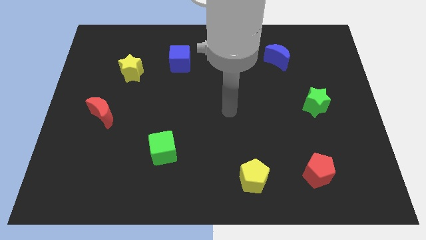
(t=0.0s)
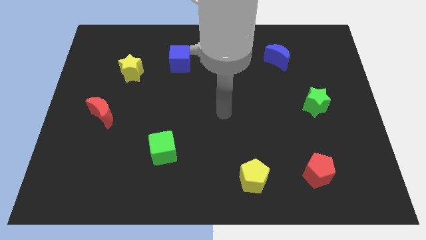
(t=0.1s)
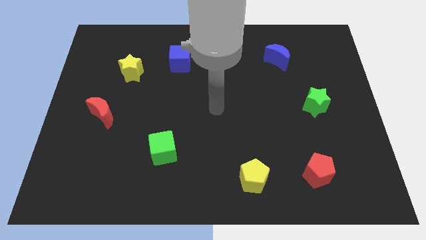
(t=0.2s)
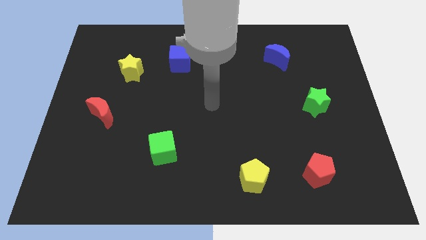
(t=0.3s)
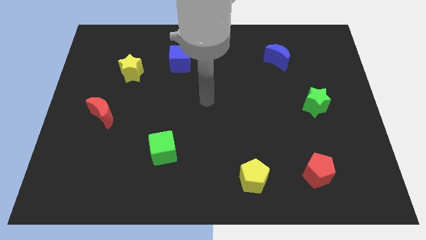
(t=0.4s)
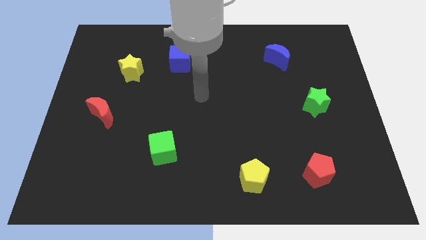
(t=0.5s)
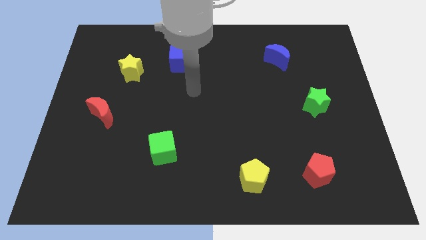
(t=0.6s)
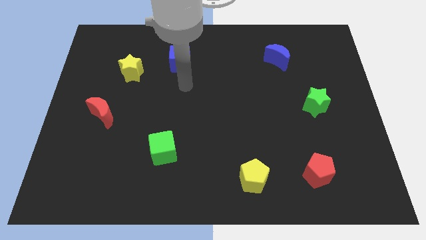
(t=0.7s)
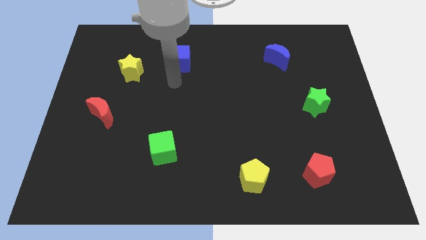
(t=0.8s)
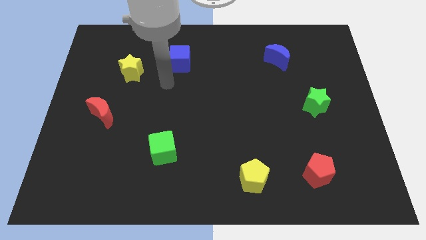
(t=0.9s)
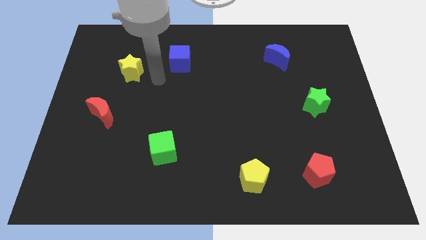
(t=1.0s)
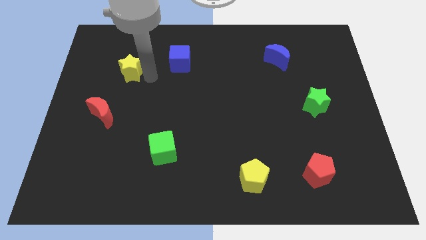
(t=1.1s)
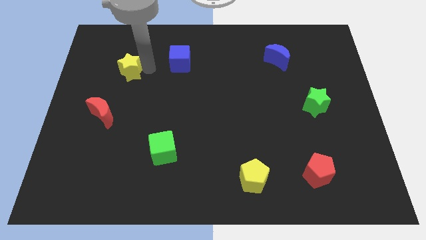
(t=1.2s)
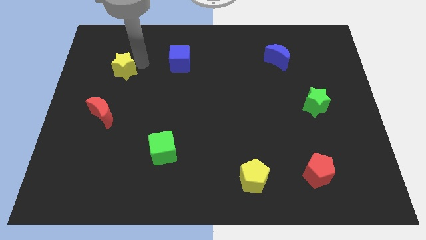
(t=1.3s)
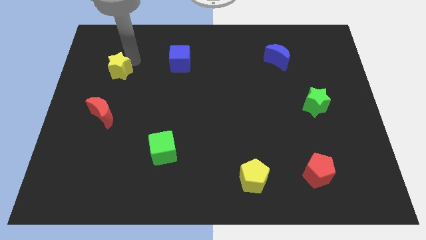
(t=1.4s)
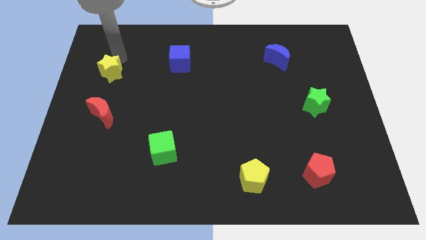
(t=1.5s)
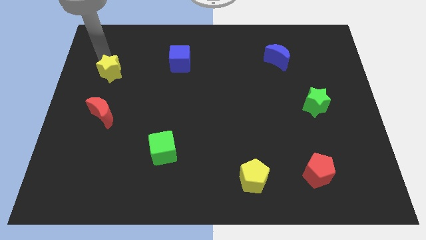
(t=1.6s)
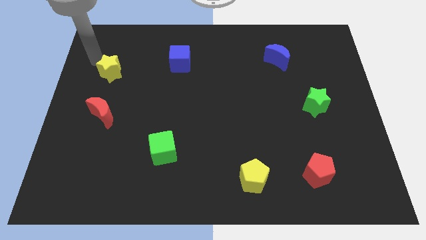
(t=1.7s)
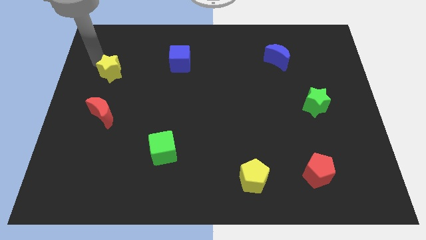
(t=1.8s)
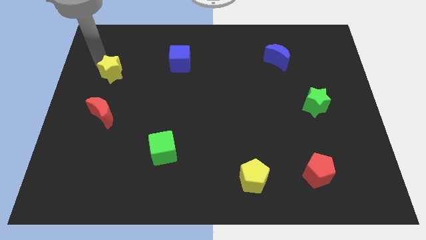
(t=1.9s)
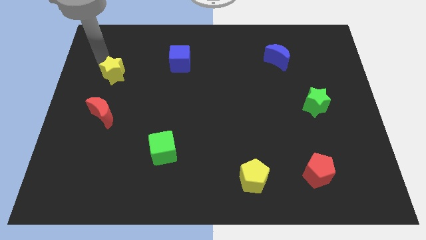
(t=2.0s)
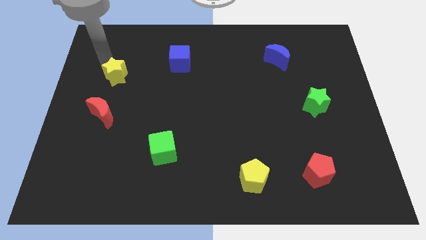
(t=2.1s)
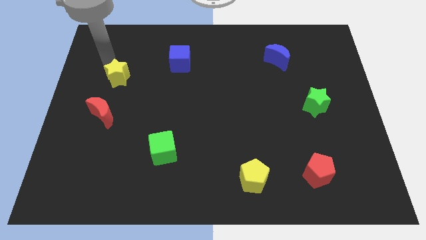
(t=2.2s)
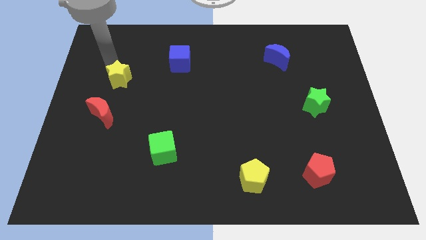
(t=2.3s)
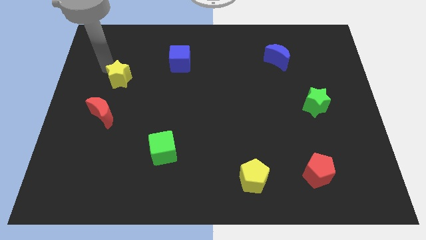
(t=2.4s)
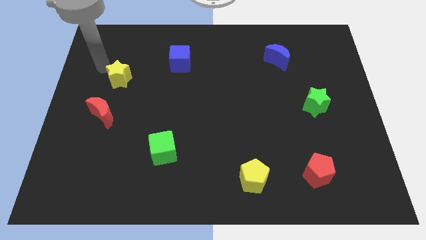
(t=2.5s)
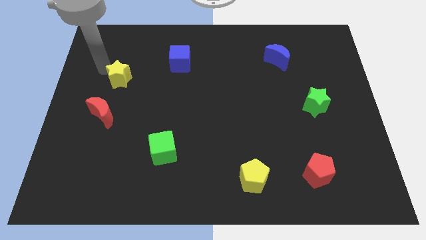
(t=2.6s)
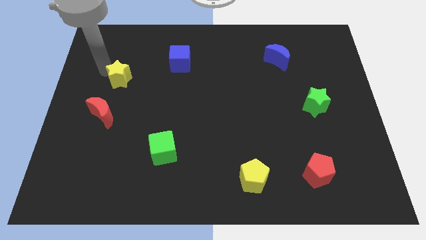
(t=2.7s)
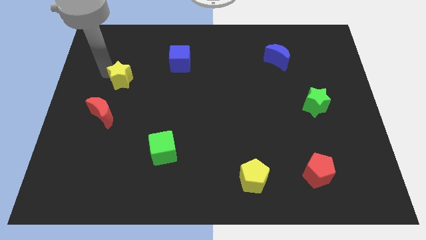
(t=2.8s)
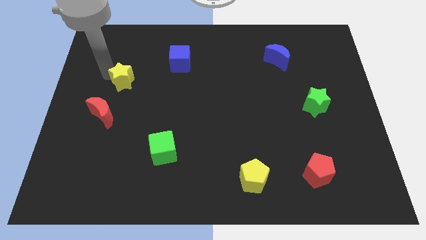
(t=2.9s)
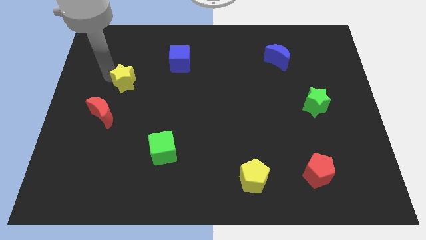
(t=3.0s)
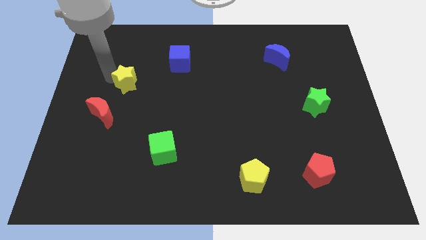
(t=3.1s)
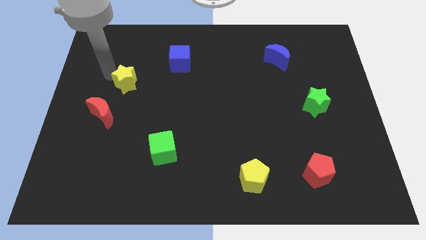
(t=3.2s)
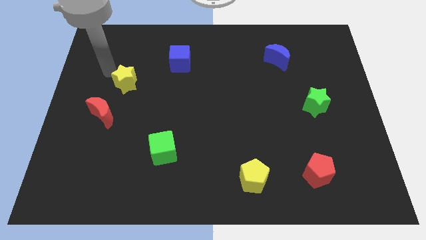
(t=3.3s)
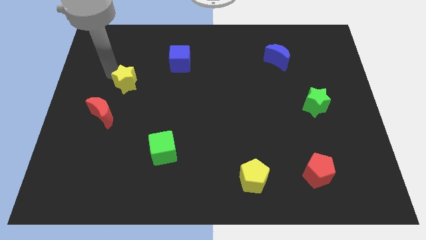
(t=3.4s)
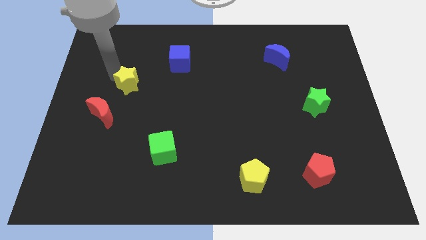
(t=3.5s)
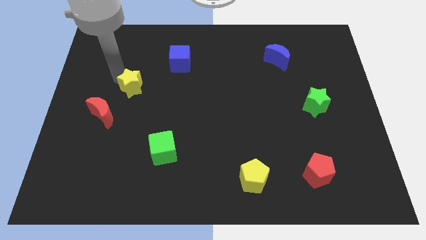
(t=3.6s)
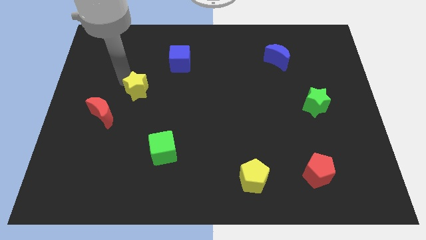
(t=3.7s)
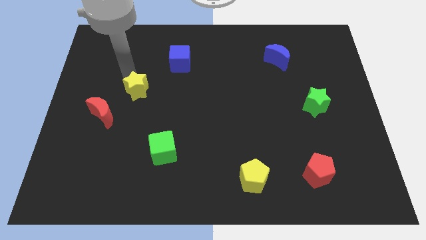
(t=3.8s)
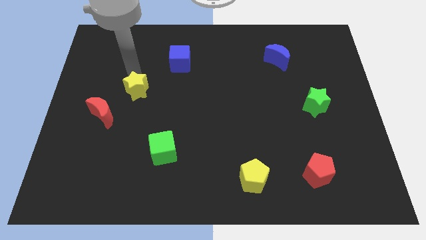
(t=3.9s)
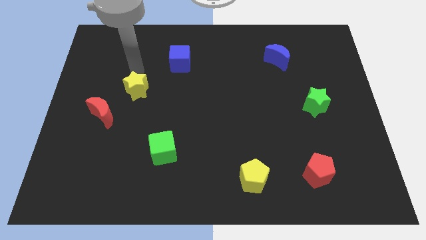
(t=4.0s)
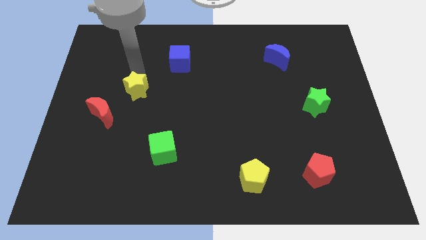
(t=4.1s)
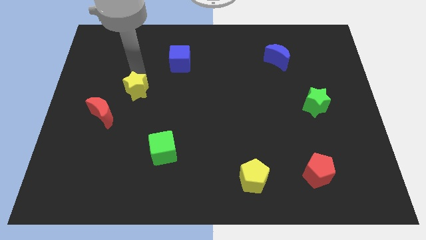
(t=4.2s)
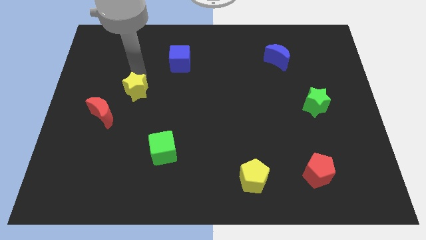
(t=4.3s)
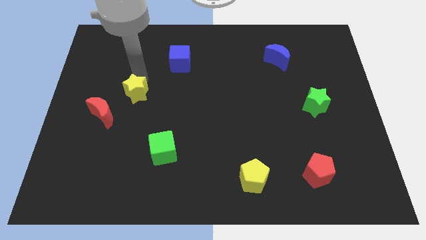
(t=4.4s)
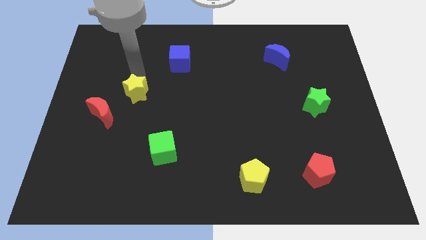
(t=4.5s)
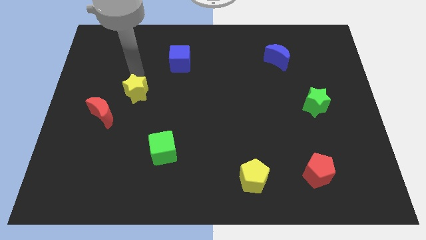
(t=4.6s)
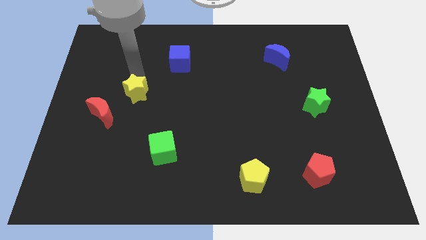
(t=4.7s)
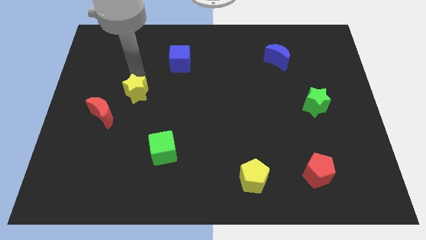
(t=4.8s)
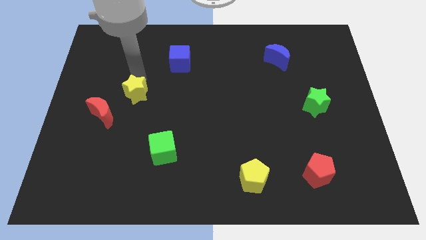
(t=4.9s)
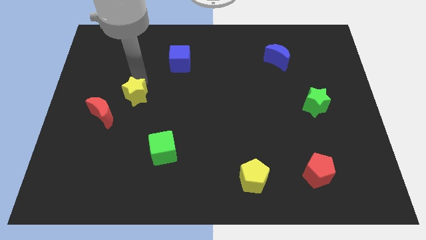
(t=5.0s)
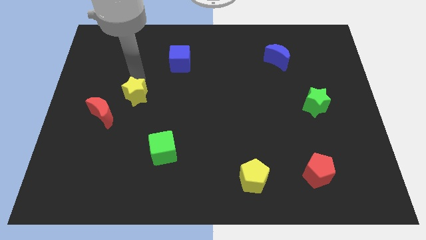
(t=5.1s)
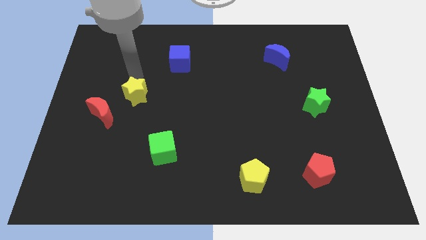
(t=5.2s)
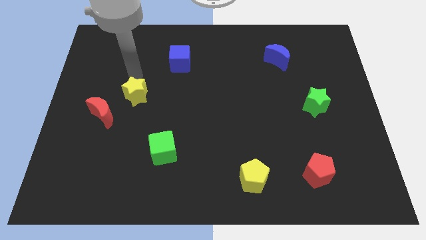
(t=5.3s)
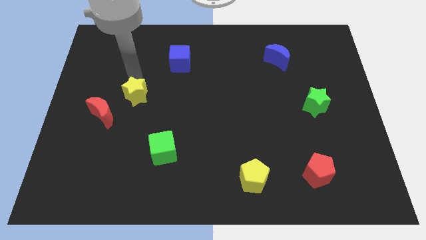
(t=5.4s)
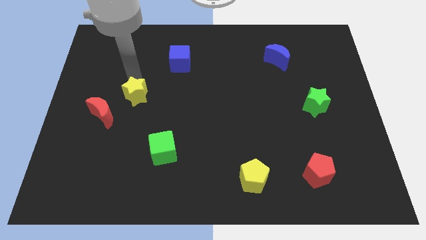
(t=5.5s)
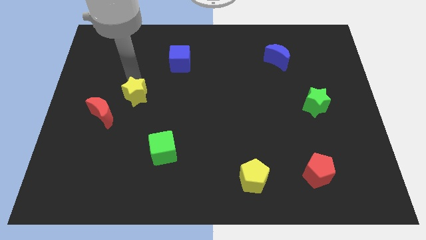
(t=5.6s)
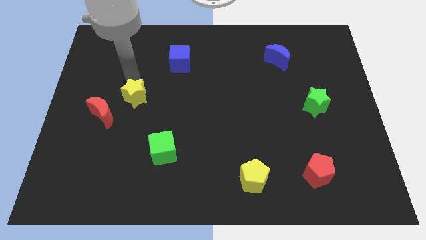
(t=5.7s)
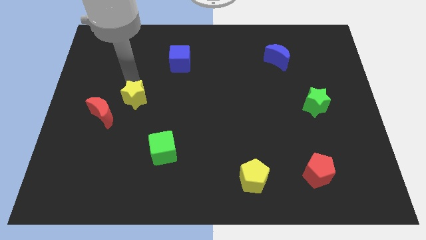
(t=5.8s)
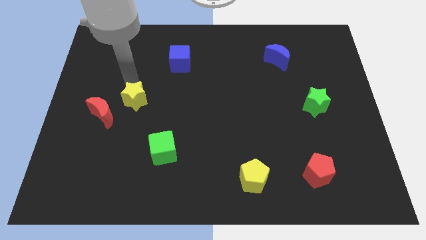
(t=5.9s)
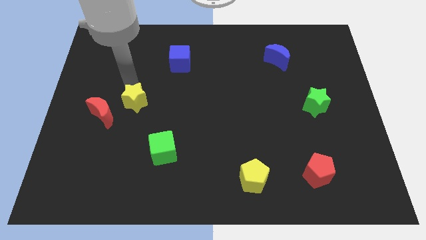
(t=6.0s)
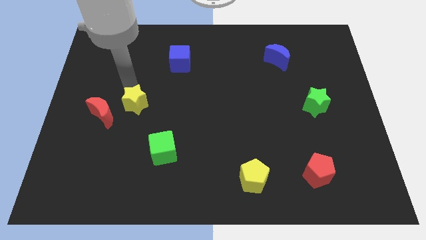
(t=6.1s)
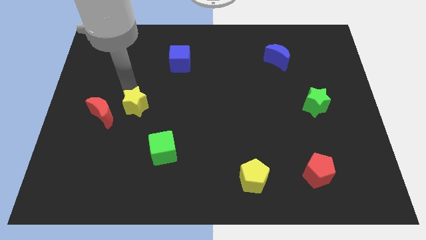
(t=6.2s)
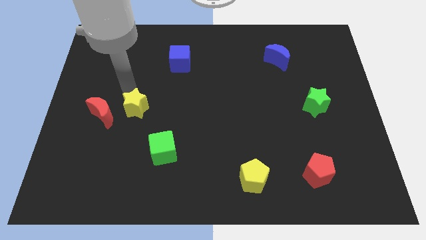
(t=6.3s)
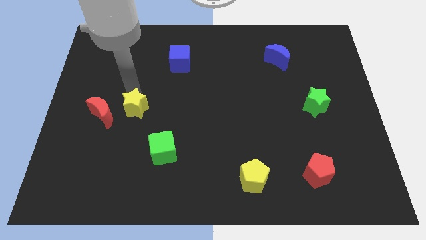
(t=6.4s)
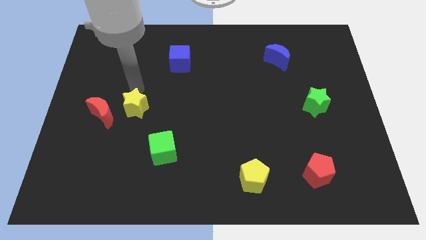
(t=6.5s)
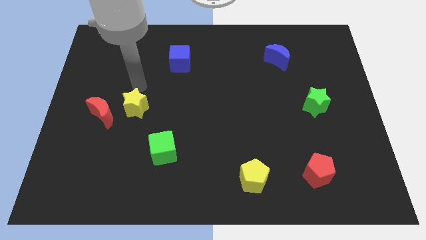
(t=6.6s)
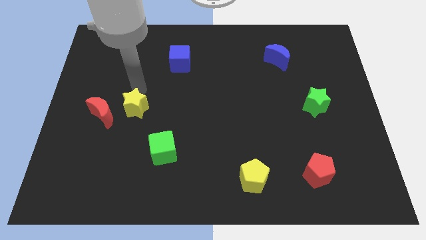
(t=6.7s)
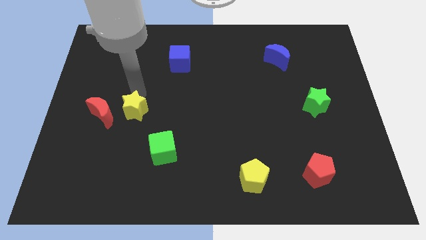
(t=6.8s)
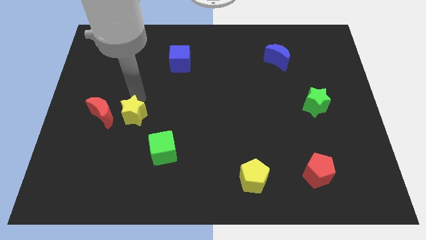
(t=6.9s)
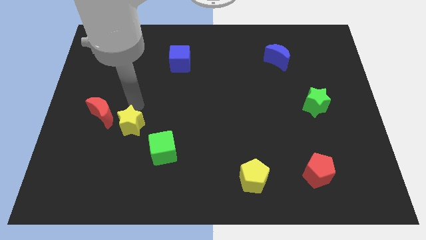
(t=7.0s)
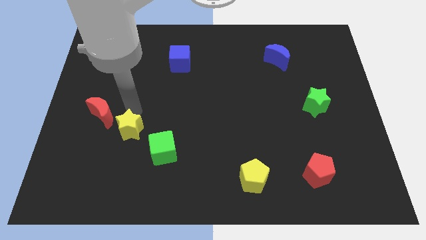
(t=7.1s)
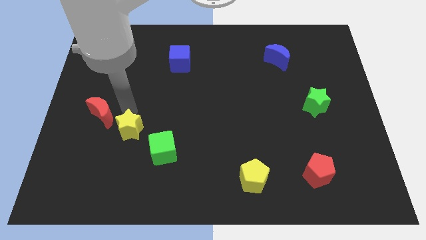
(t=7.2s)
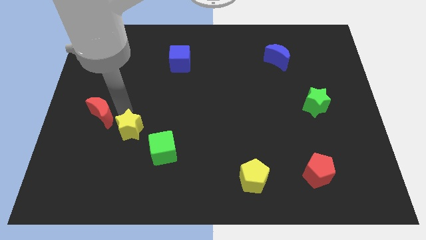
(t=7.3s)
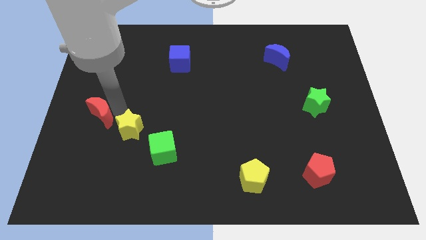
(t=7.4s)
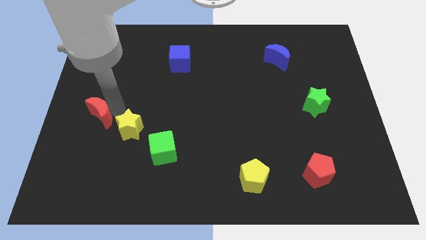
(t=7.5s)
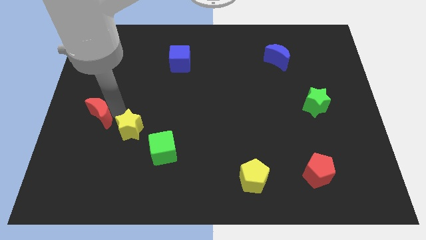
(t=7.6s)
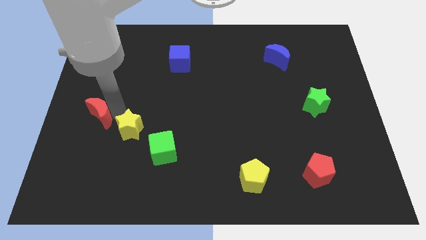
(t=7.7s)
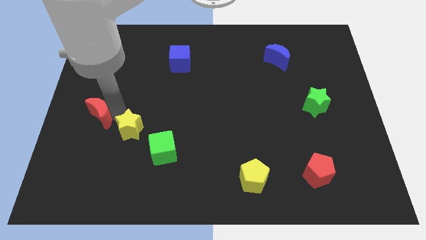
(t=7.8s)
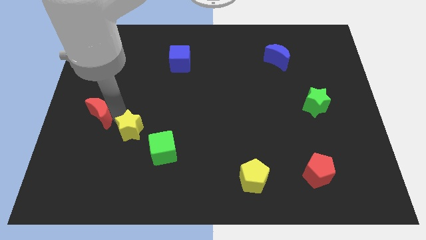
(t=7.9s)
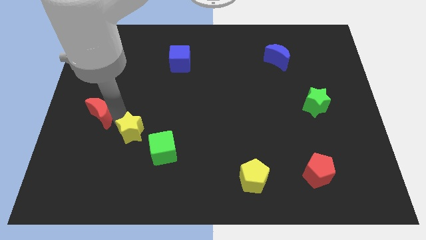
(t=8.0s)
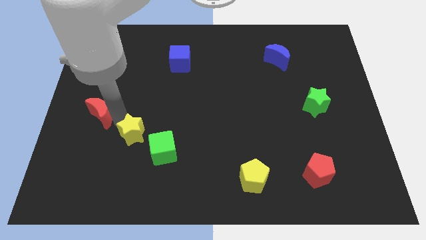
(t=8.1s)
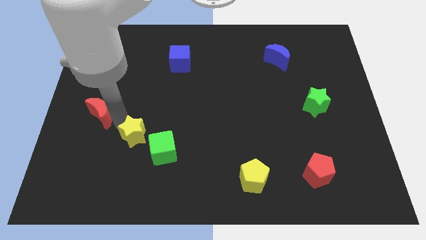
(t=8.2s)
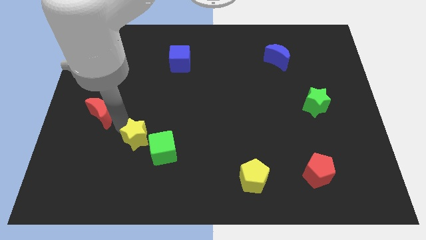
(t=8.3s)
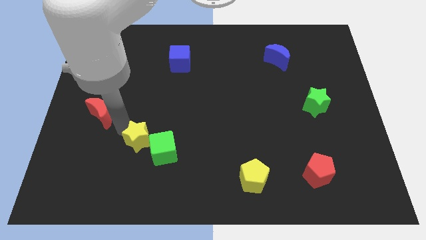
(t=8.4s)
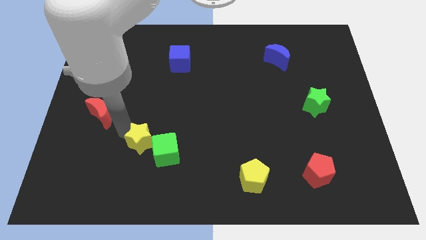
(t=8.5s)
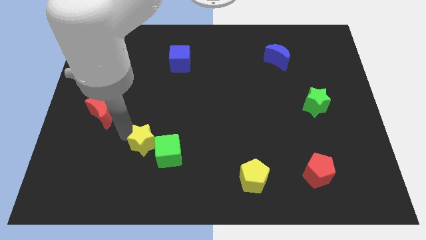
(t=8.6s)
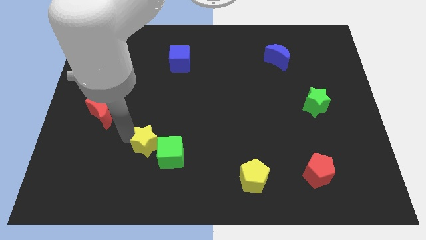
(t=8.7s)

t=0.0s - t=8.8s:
put the yellow star towards the green cube
